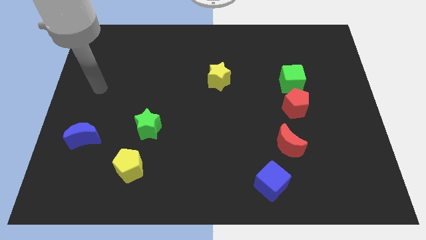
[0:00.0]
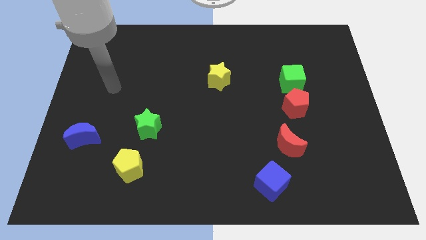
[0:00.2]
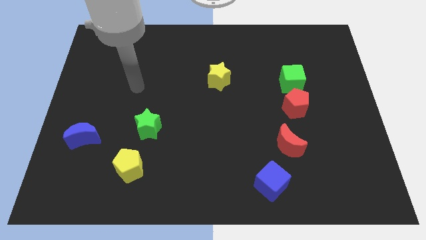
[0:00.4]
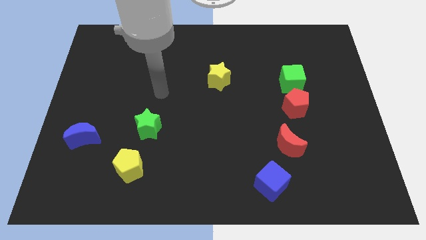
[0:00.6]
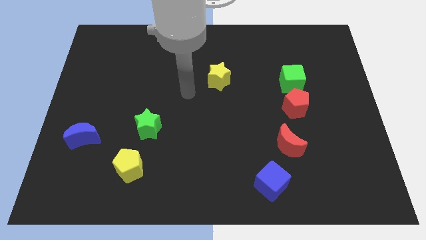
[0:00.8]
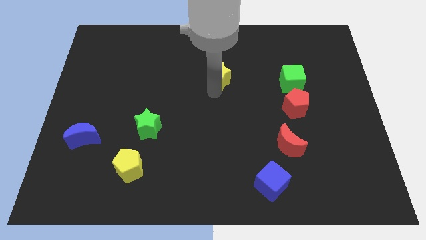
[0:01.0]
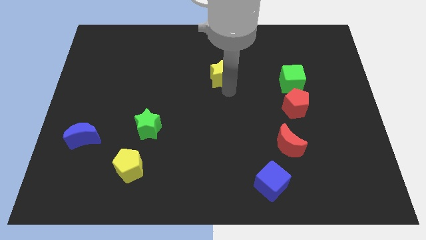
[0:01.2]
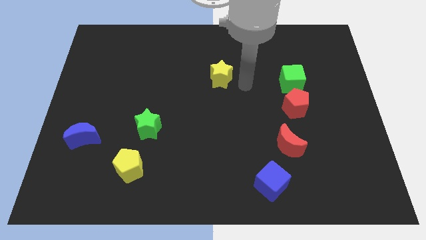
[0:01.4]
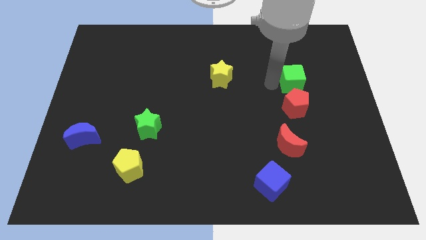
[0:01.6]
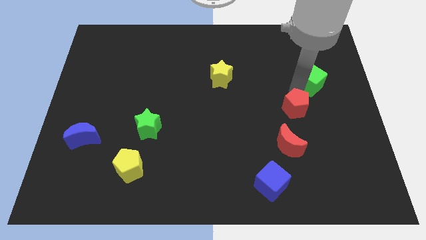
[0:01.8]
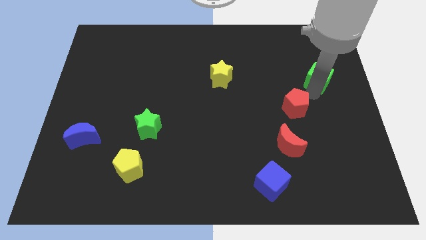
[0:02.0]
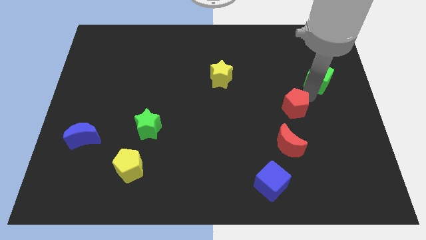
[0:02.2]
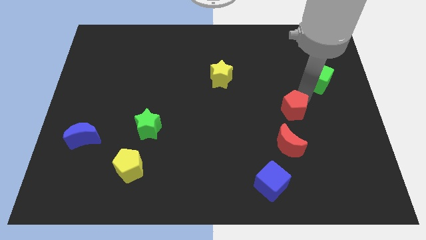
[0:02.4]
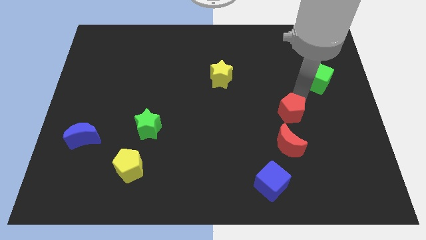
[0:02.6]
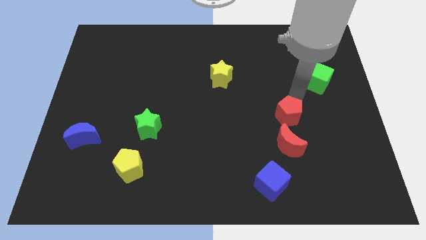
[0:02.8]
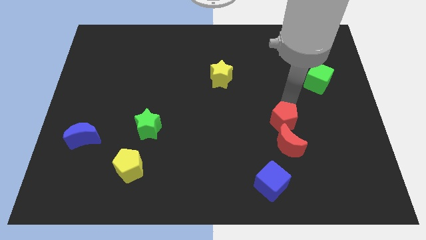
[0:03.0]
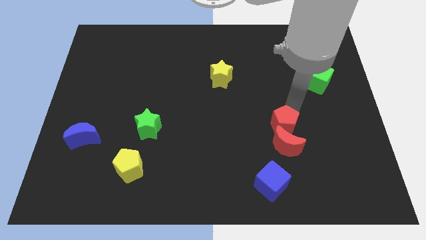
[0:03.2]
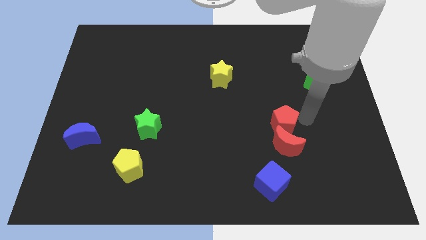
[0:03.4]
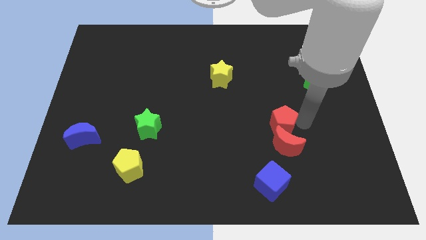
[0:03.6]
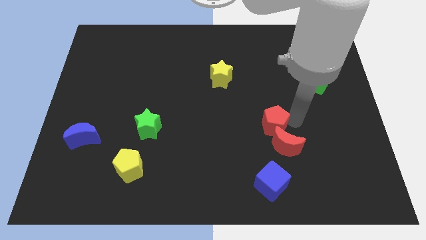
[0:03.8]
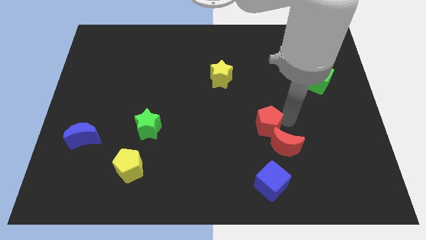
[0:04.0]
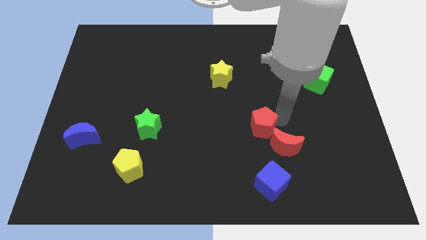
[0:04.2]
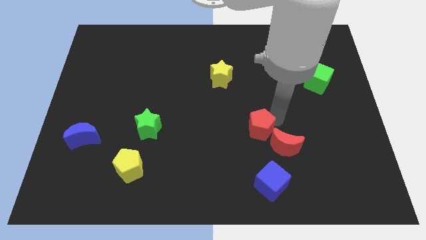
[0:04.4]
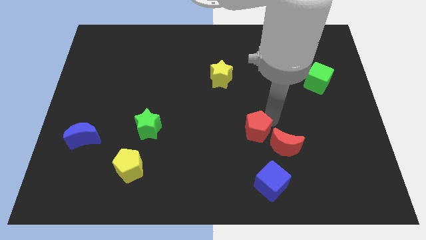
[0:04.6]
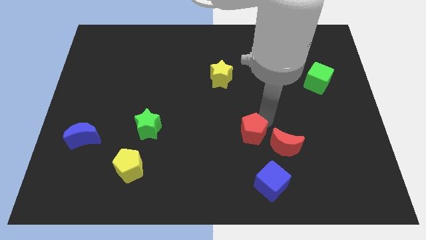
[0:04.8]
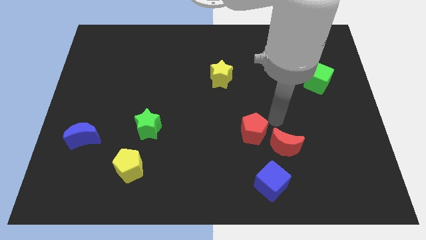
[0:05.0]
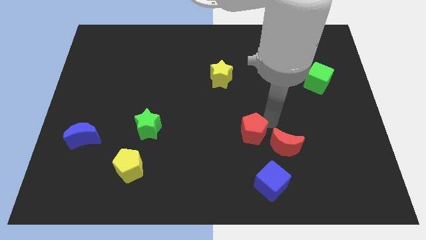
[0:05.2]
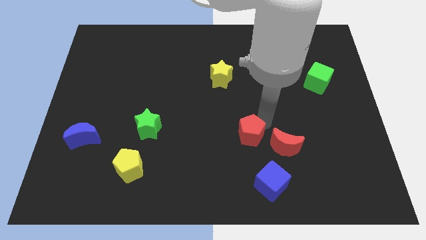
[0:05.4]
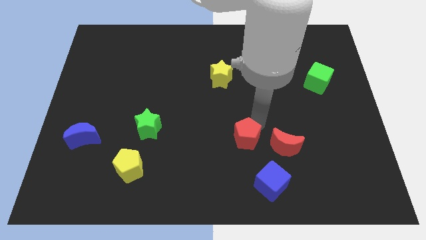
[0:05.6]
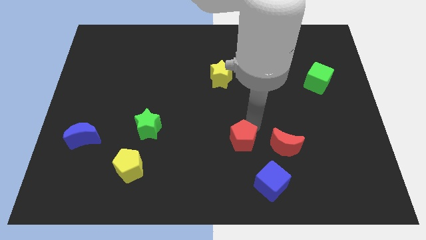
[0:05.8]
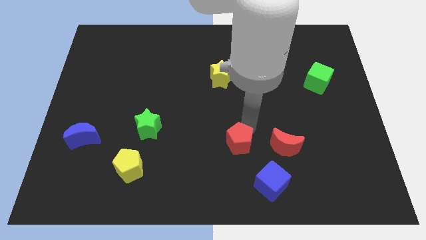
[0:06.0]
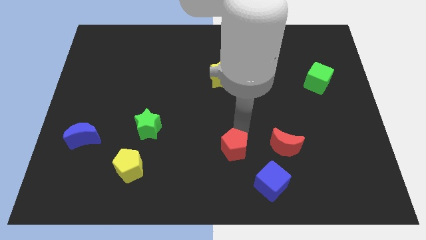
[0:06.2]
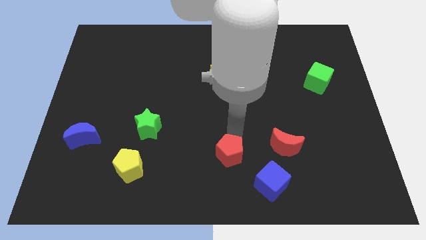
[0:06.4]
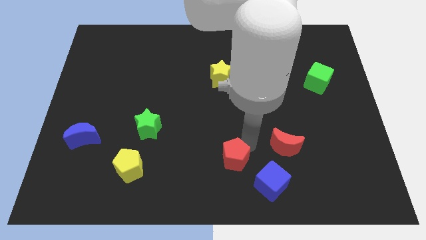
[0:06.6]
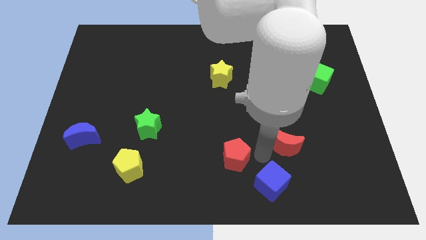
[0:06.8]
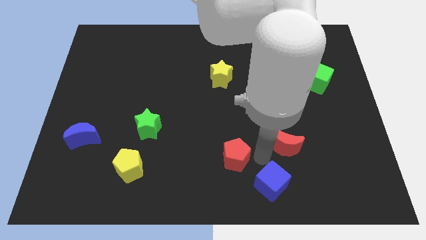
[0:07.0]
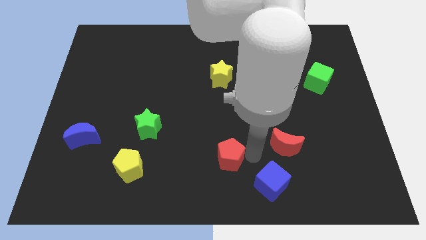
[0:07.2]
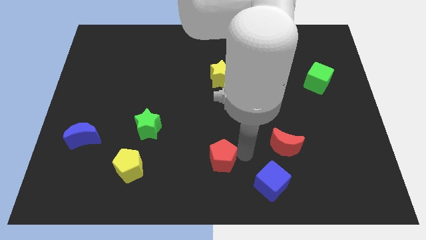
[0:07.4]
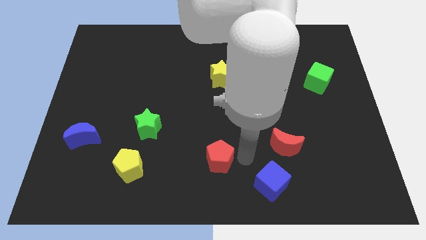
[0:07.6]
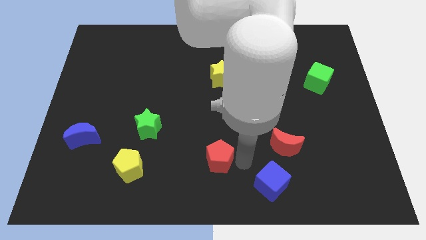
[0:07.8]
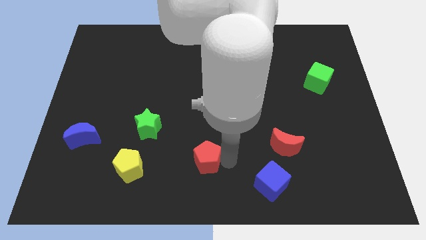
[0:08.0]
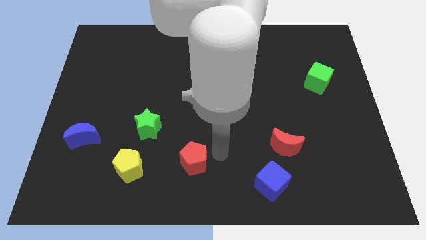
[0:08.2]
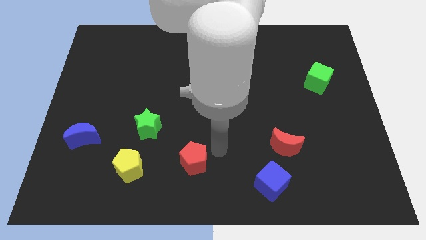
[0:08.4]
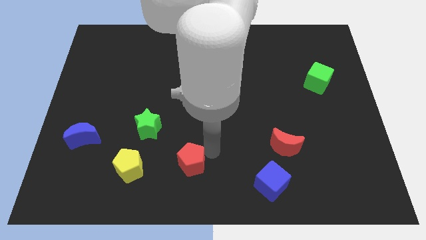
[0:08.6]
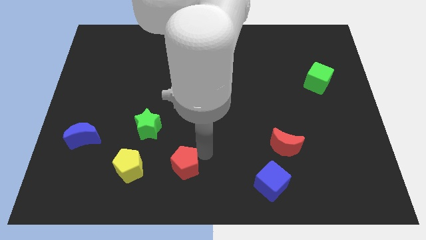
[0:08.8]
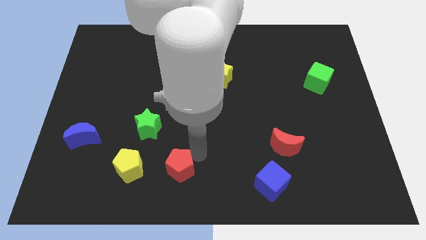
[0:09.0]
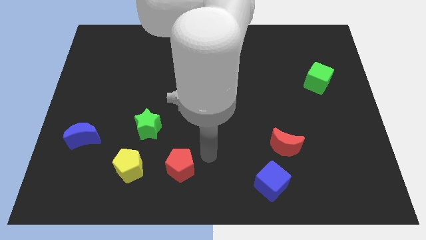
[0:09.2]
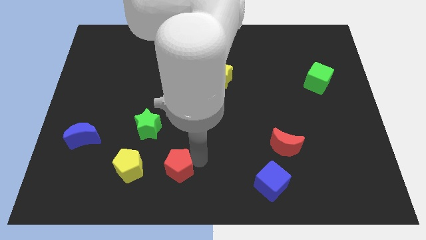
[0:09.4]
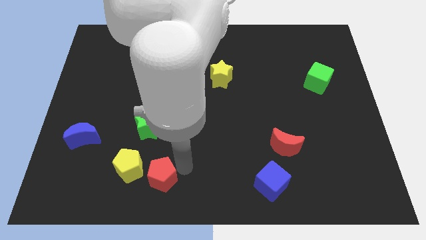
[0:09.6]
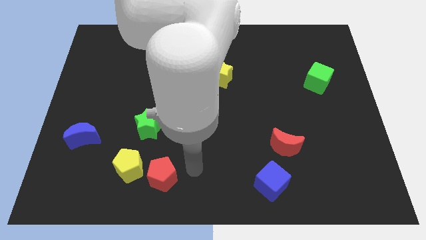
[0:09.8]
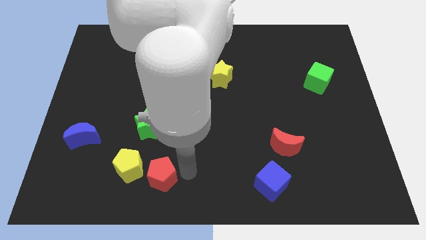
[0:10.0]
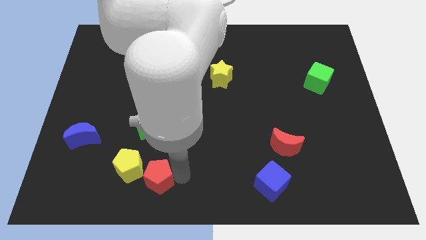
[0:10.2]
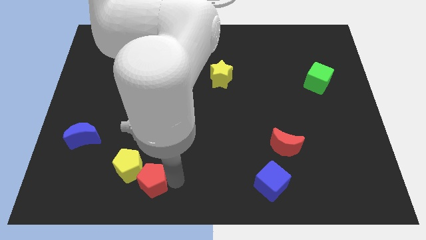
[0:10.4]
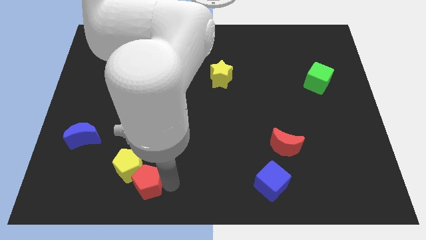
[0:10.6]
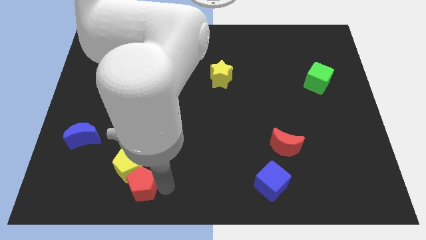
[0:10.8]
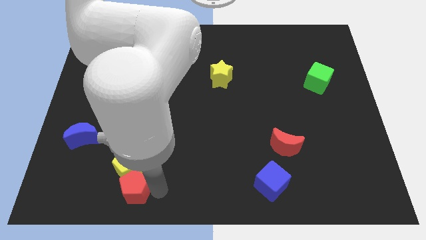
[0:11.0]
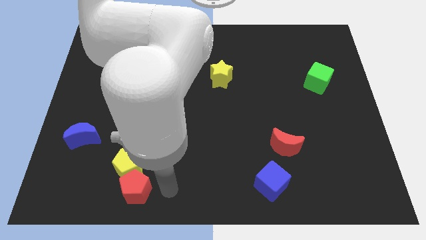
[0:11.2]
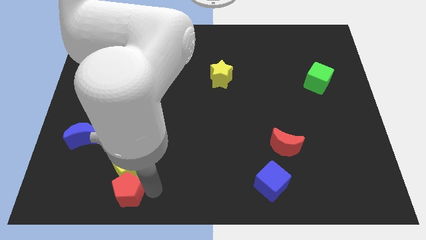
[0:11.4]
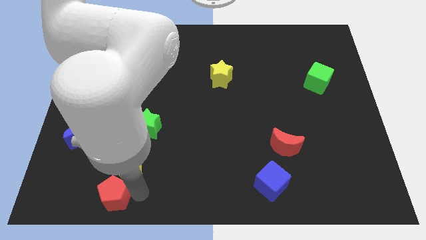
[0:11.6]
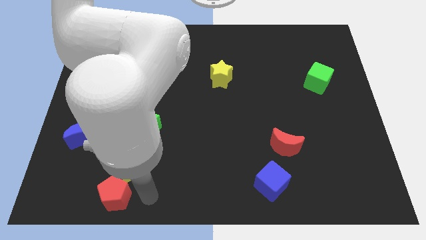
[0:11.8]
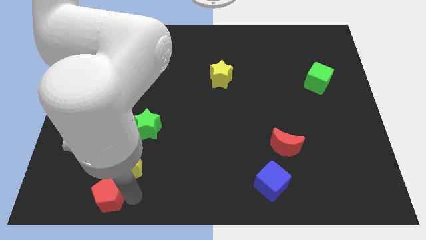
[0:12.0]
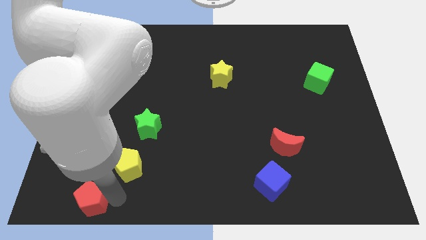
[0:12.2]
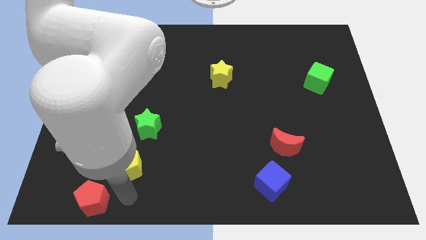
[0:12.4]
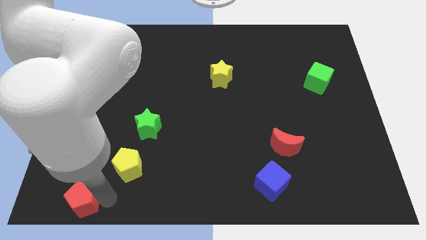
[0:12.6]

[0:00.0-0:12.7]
move the red pentagon to the bottom left corner
